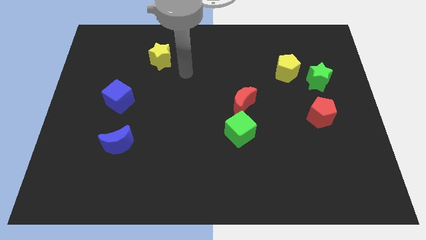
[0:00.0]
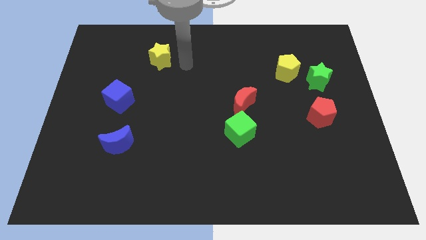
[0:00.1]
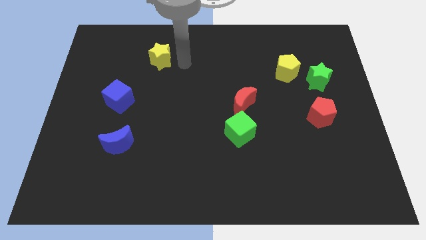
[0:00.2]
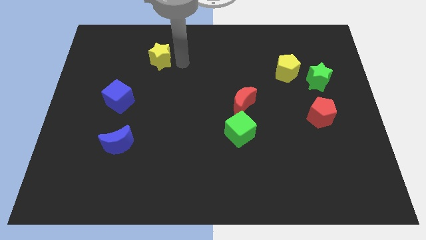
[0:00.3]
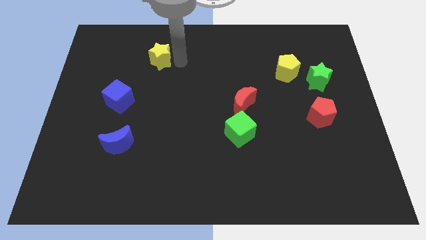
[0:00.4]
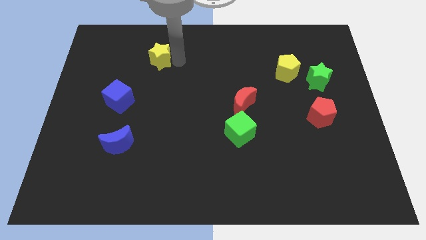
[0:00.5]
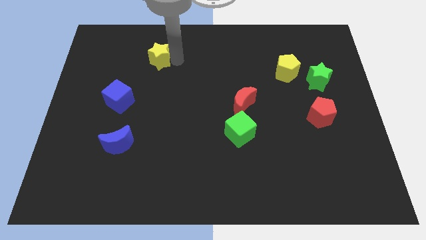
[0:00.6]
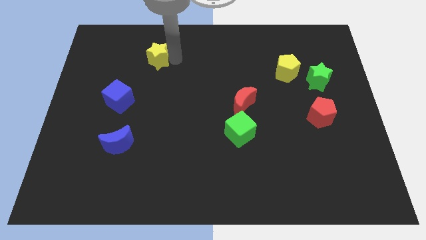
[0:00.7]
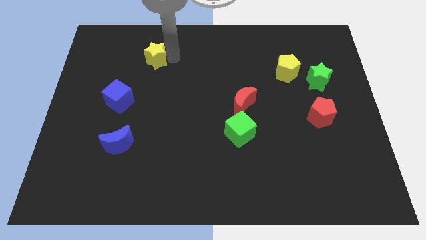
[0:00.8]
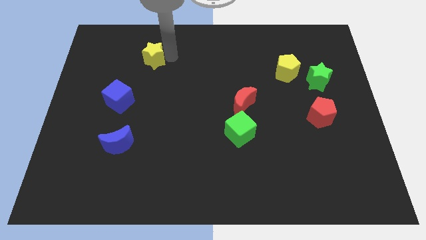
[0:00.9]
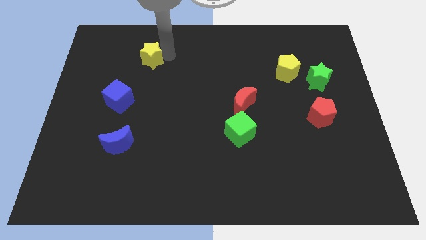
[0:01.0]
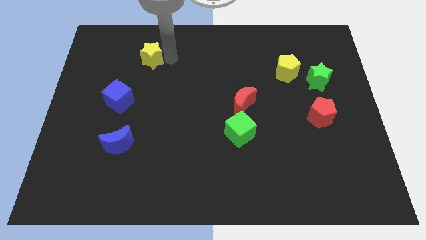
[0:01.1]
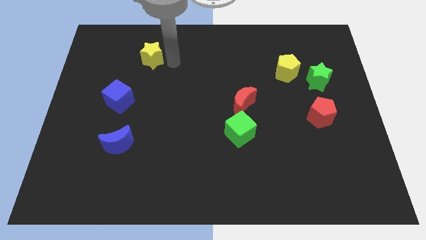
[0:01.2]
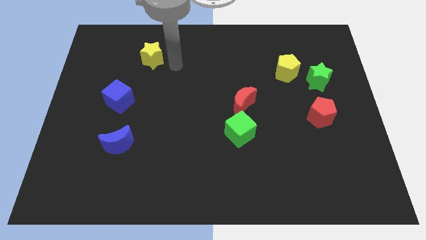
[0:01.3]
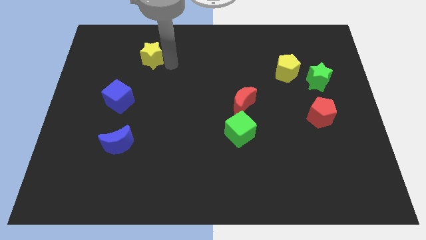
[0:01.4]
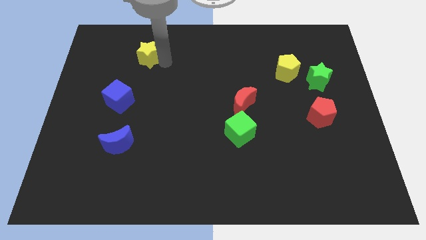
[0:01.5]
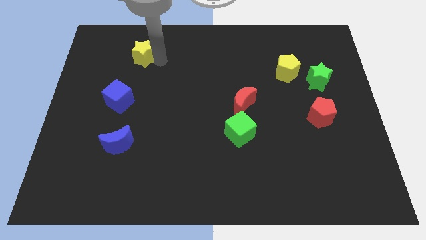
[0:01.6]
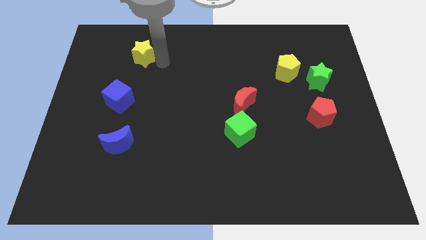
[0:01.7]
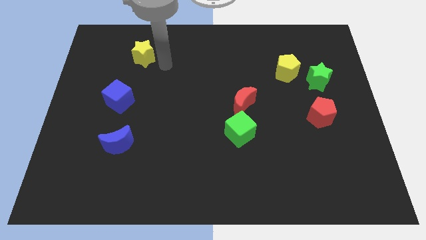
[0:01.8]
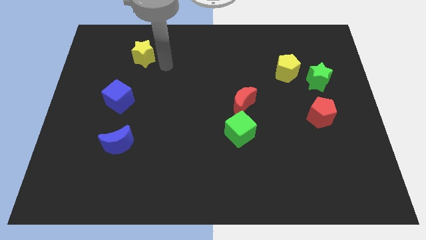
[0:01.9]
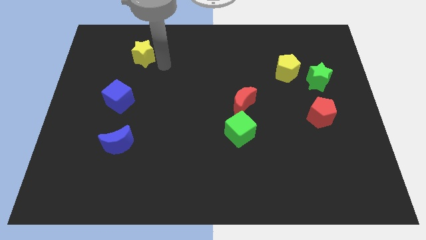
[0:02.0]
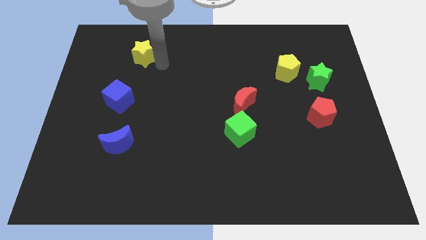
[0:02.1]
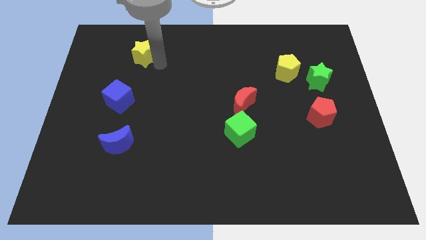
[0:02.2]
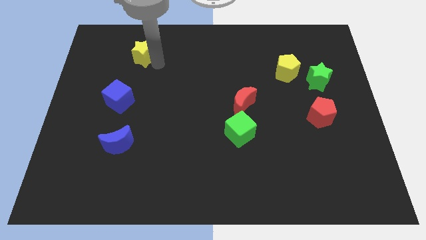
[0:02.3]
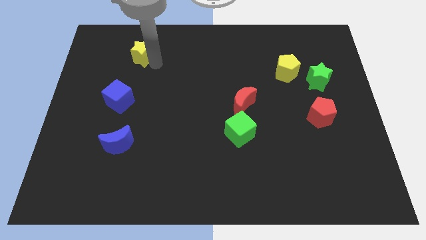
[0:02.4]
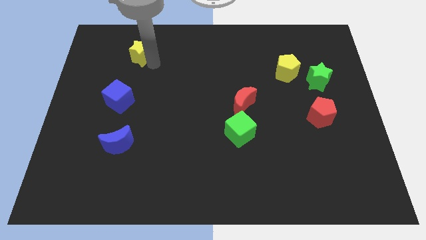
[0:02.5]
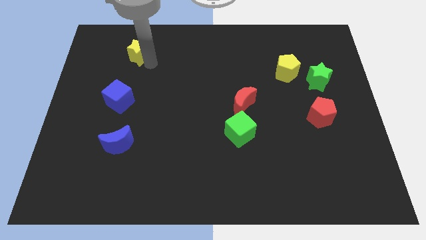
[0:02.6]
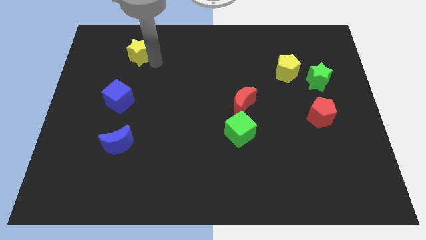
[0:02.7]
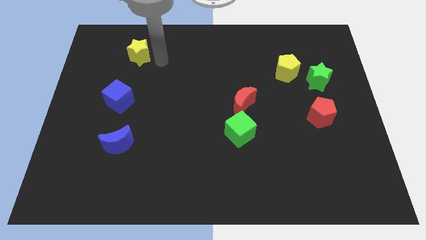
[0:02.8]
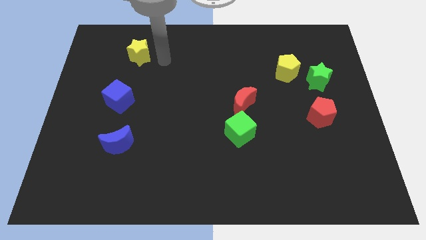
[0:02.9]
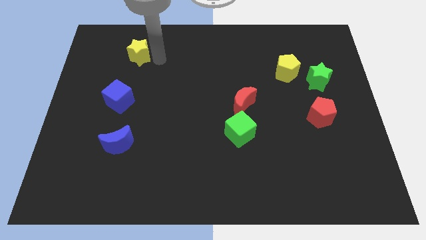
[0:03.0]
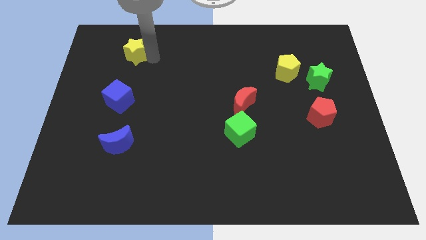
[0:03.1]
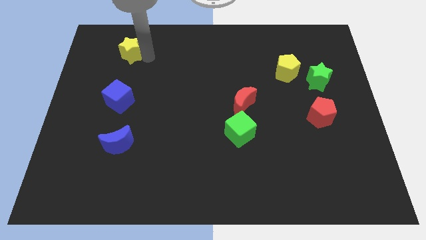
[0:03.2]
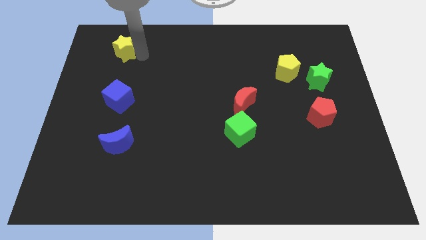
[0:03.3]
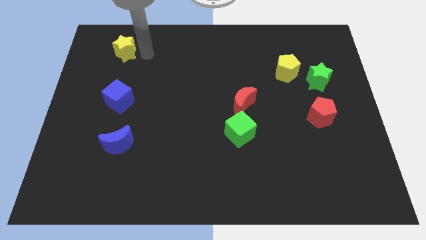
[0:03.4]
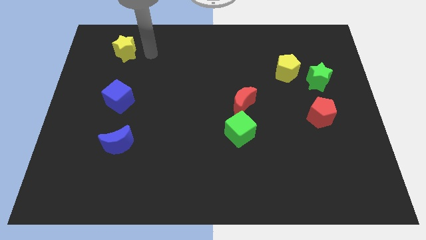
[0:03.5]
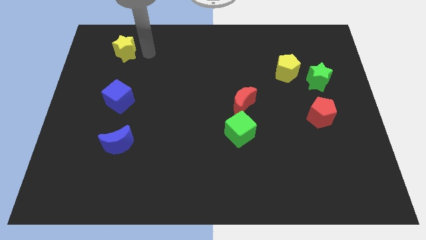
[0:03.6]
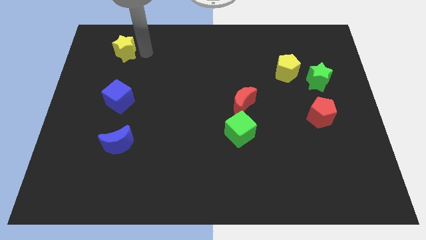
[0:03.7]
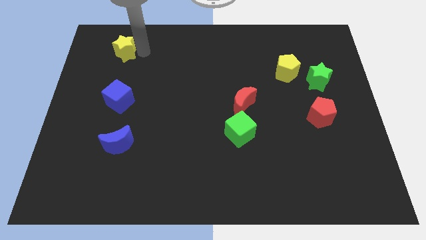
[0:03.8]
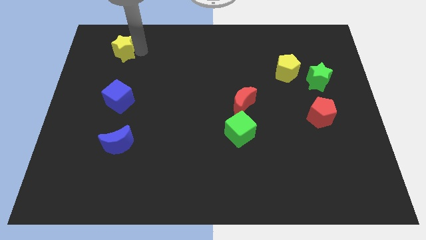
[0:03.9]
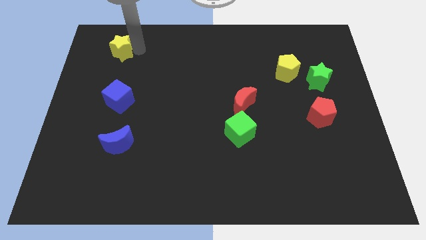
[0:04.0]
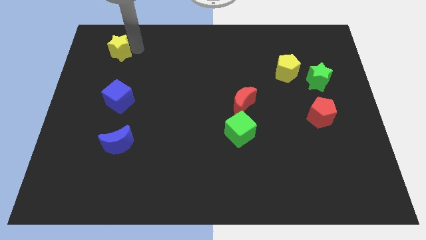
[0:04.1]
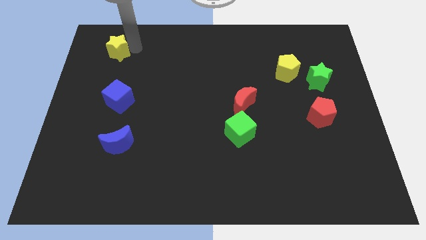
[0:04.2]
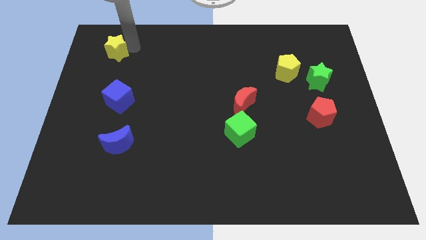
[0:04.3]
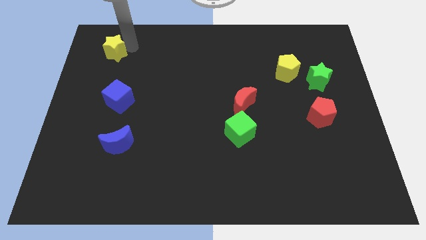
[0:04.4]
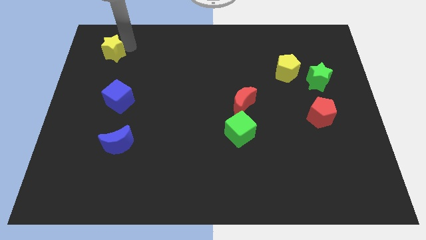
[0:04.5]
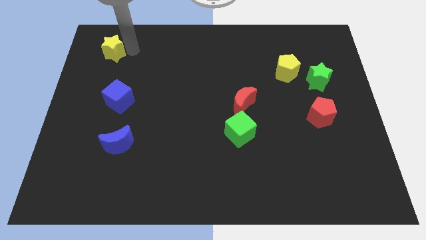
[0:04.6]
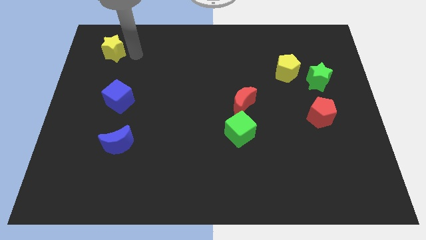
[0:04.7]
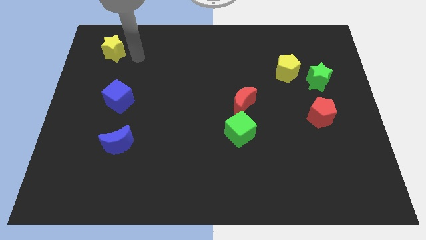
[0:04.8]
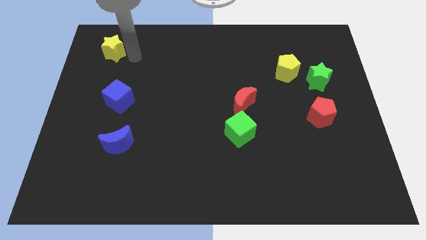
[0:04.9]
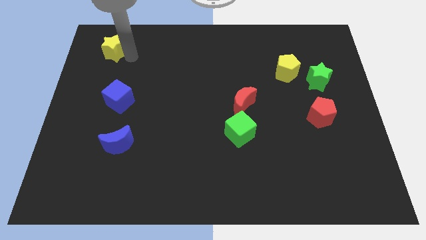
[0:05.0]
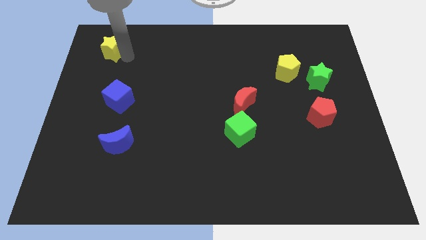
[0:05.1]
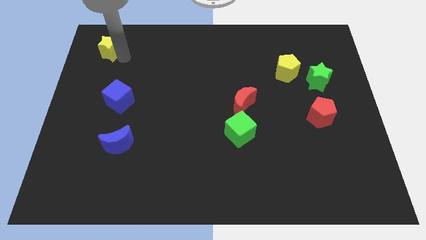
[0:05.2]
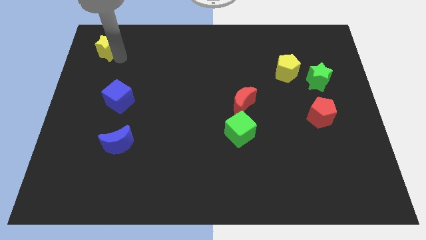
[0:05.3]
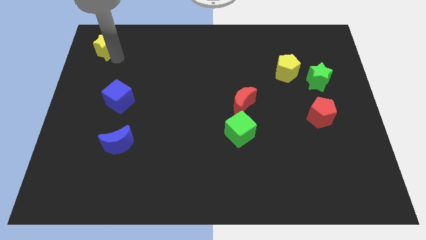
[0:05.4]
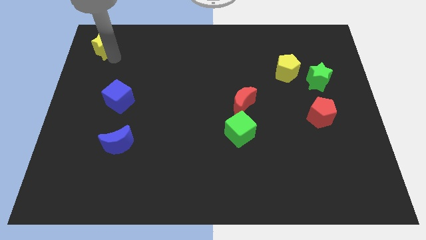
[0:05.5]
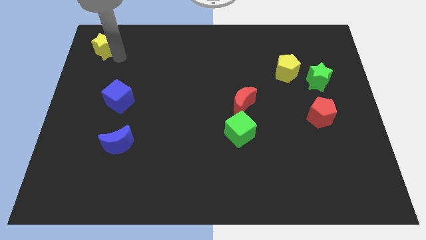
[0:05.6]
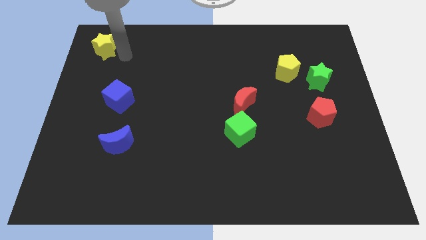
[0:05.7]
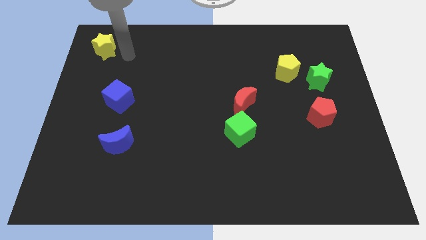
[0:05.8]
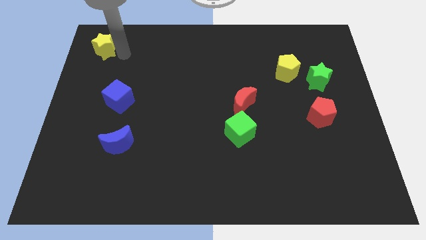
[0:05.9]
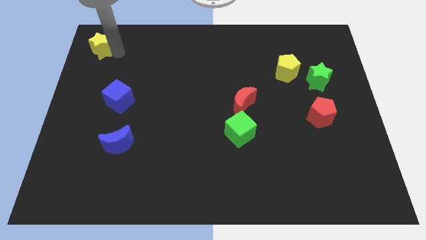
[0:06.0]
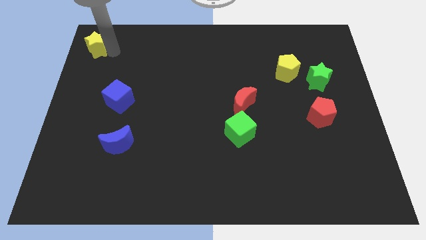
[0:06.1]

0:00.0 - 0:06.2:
put the yellow star to the top left corner
